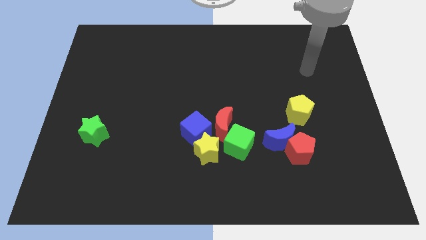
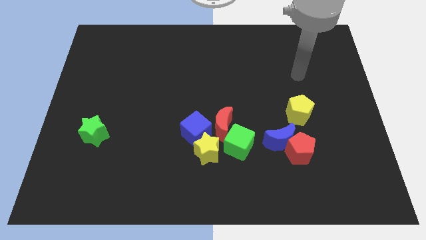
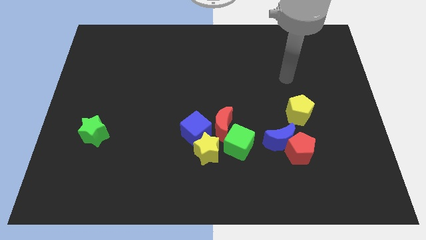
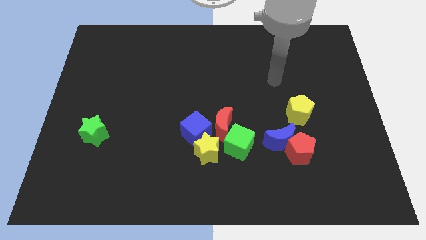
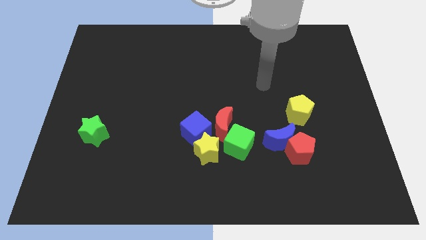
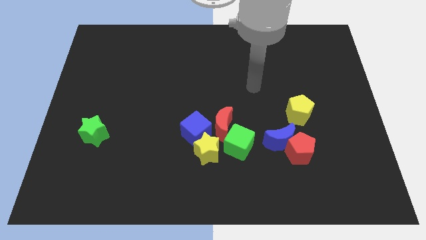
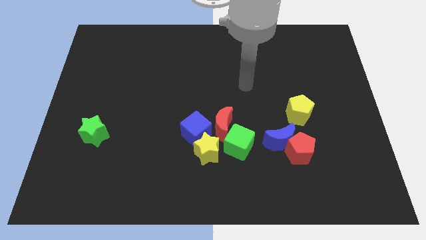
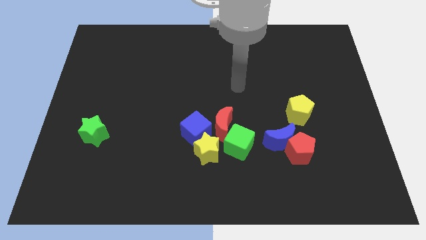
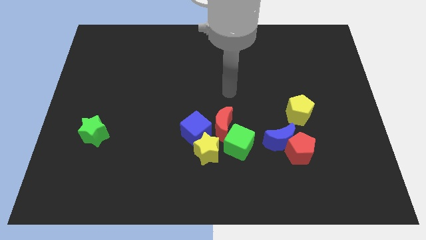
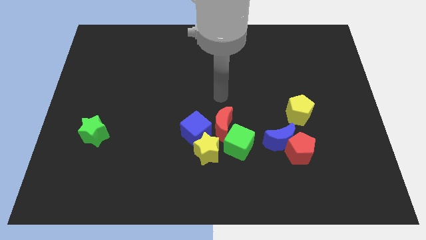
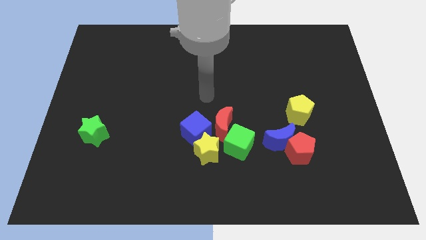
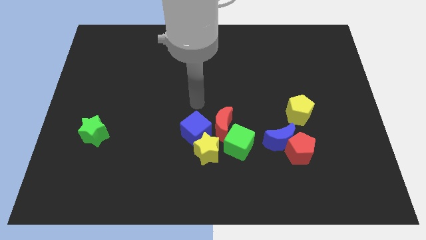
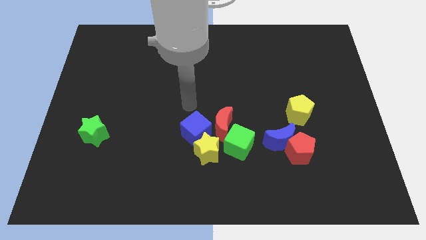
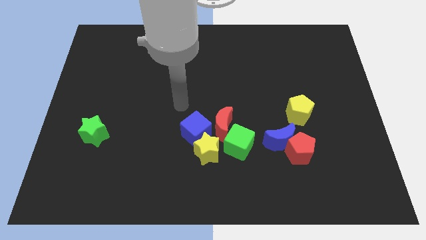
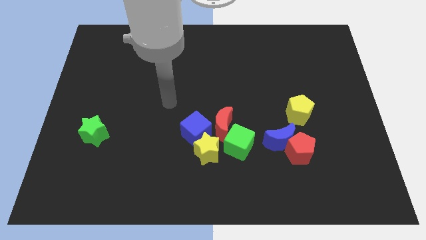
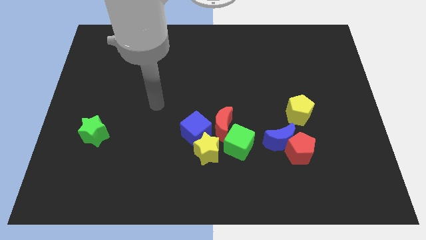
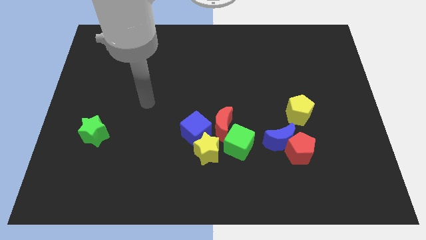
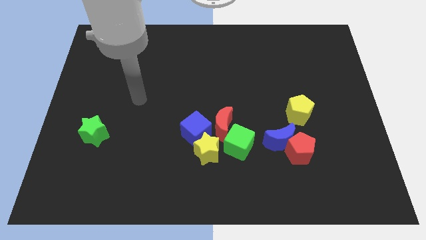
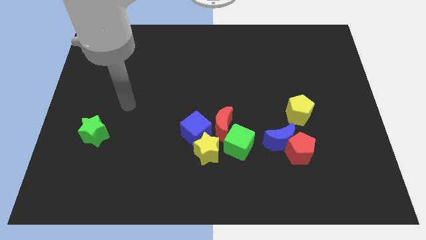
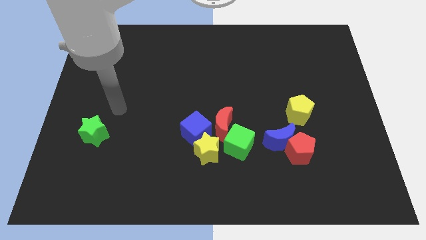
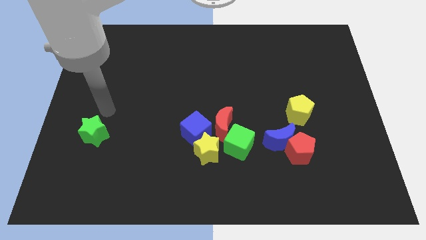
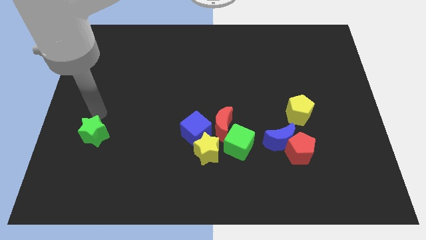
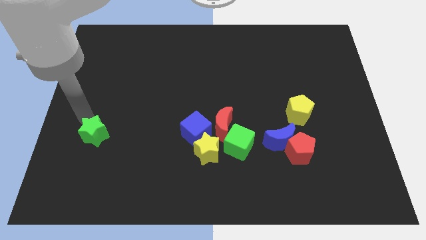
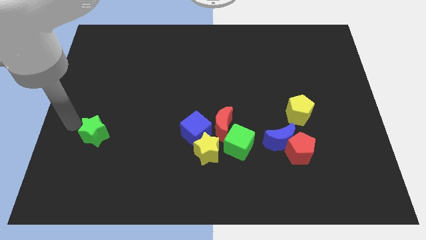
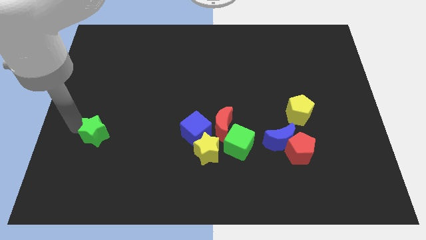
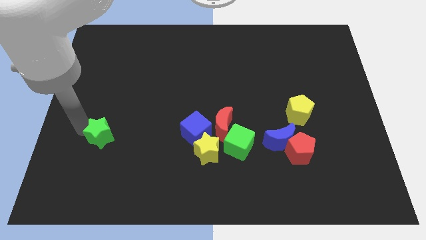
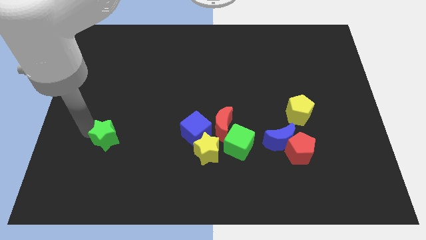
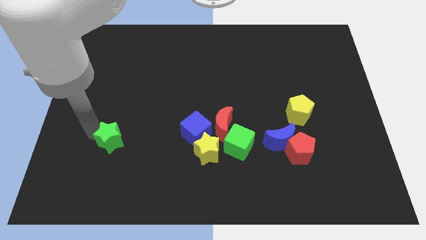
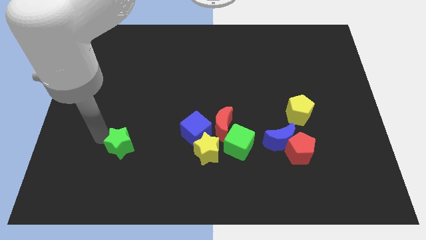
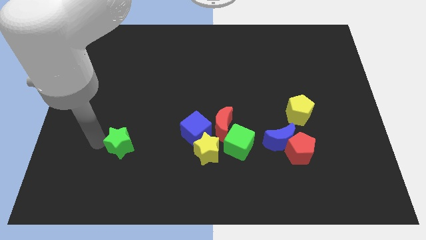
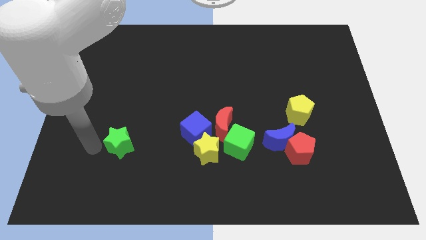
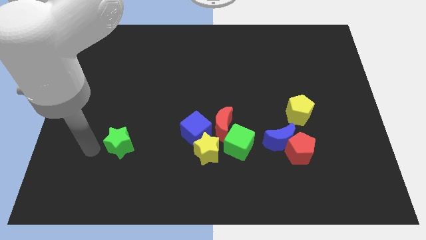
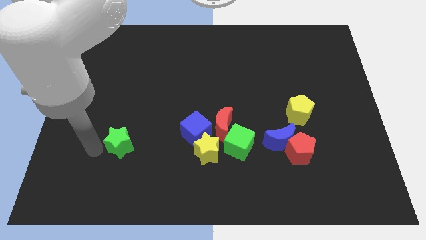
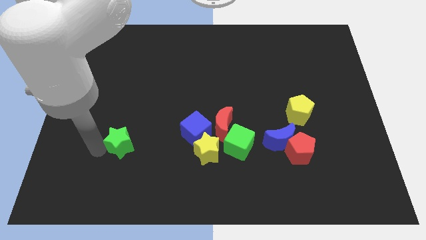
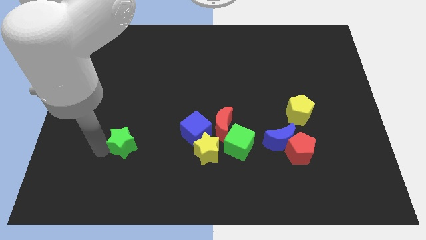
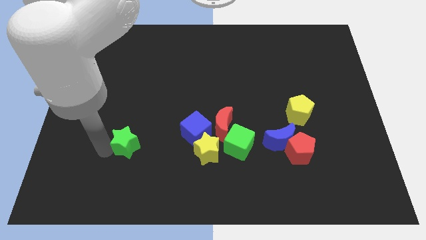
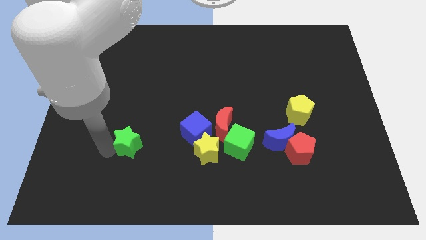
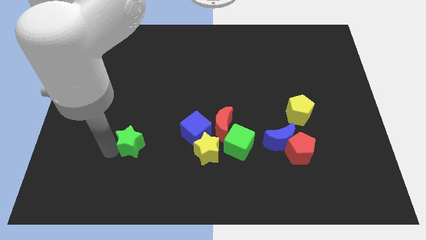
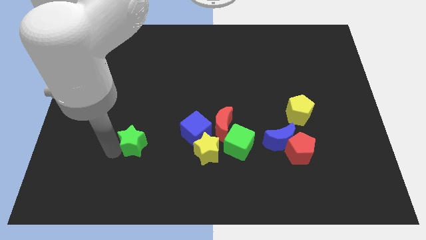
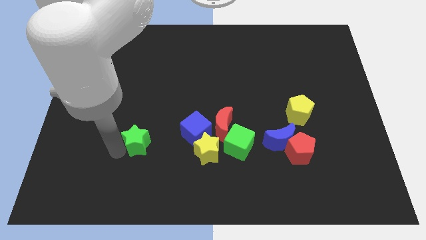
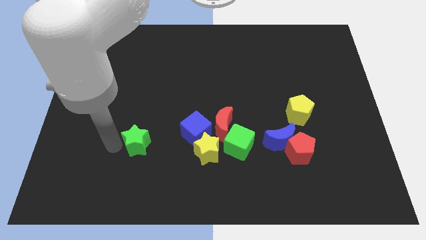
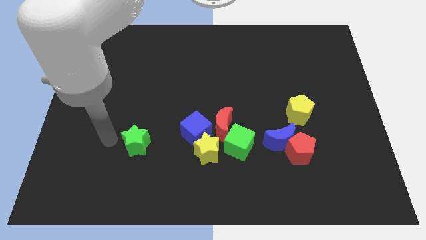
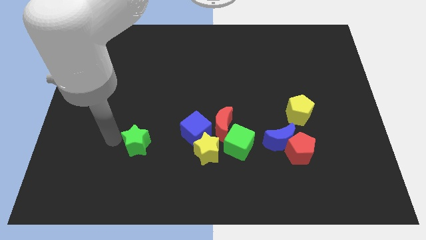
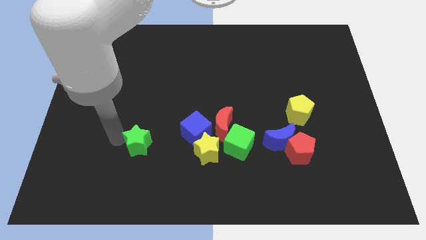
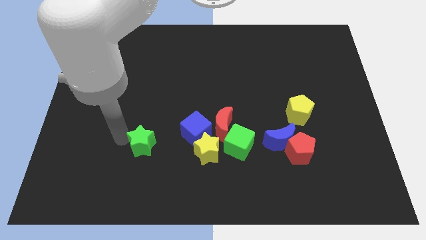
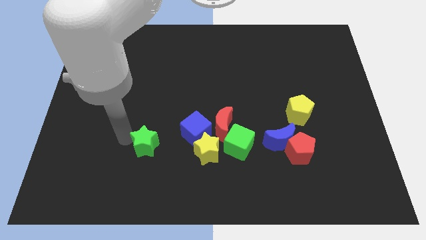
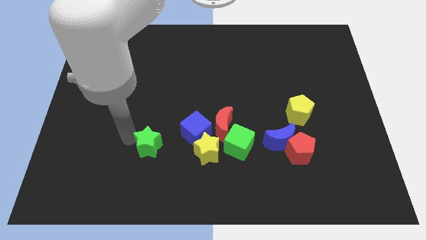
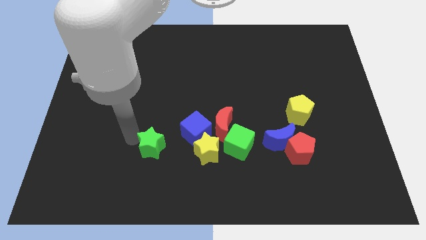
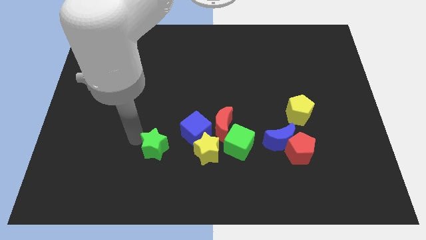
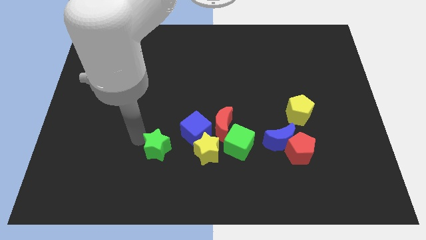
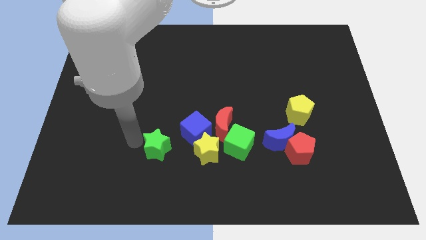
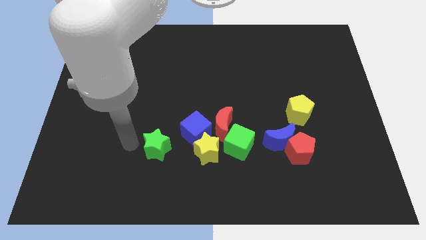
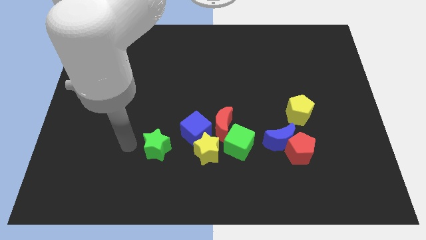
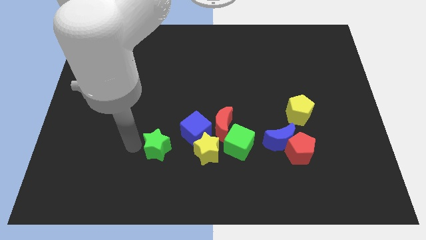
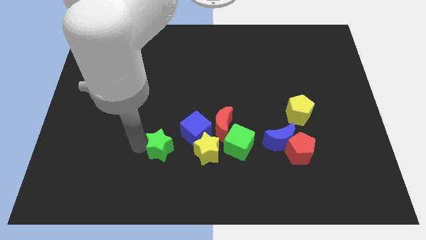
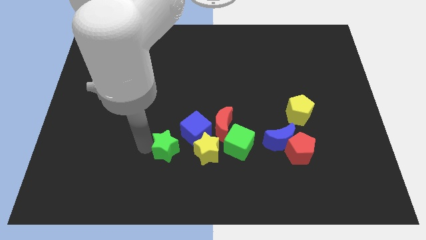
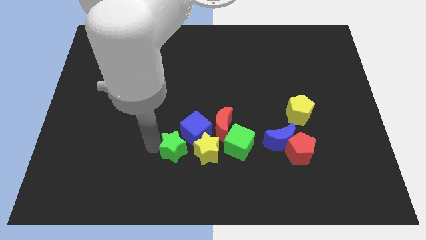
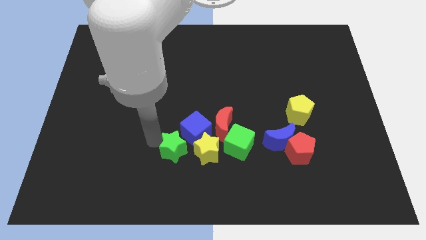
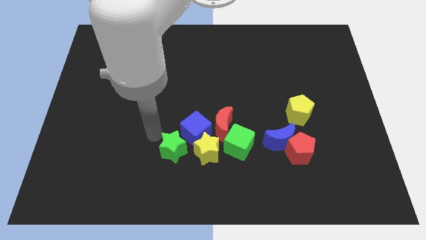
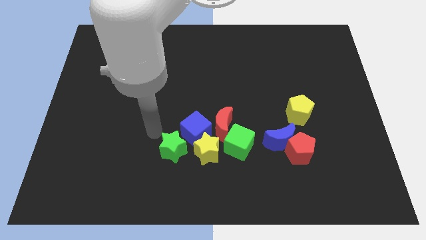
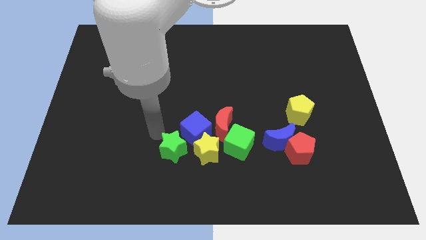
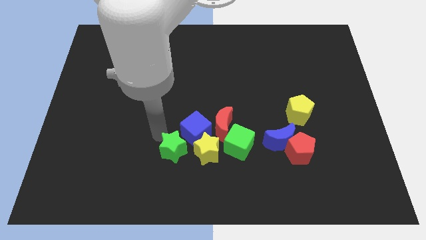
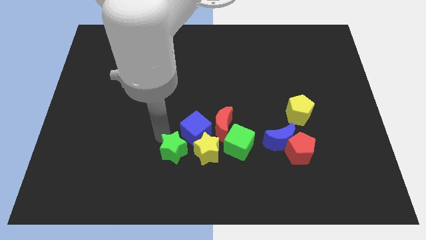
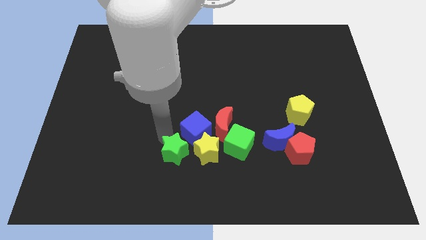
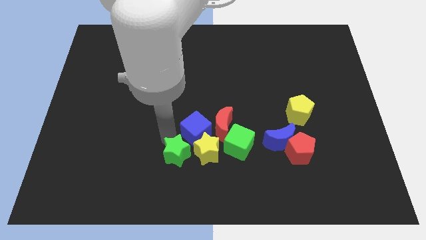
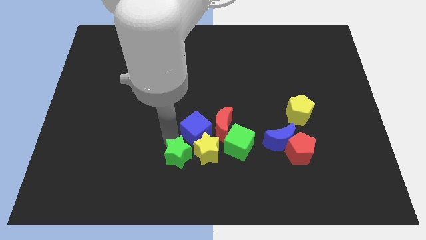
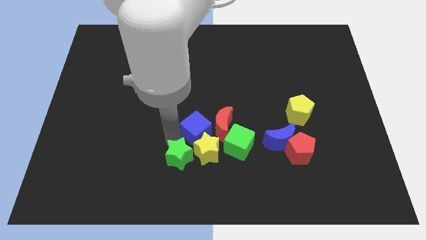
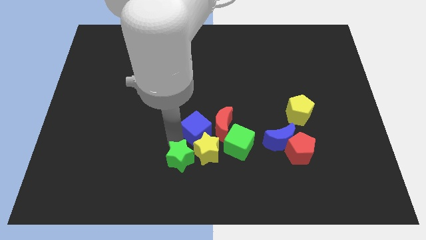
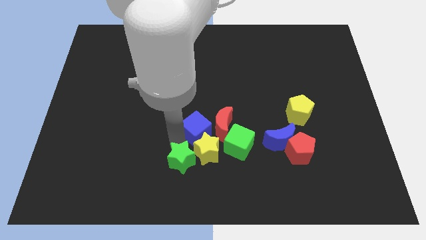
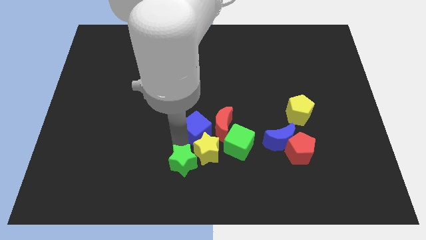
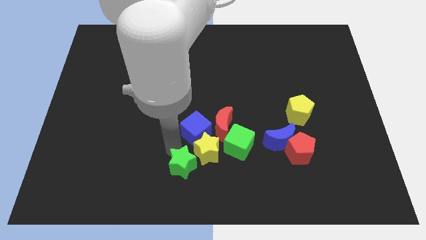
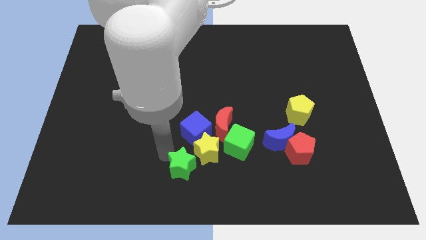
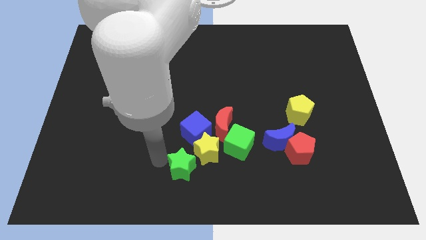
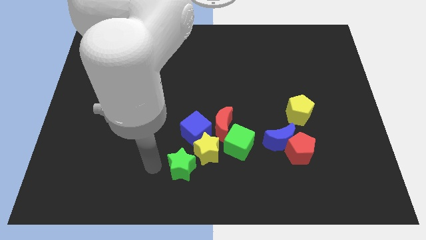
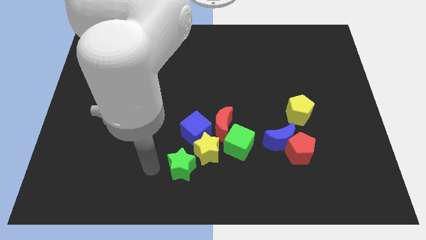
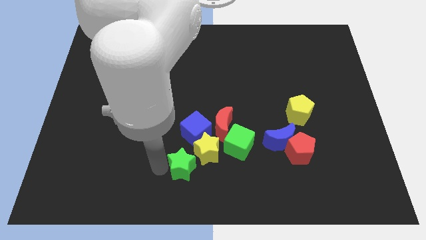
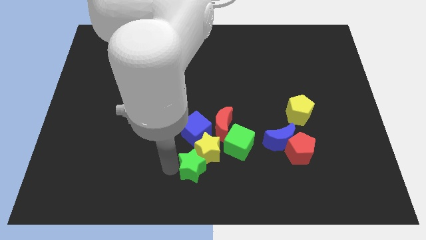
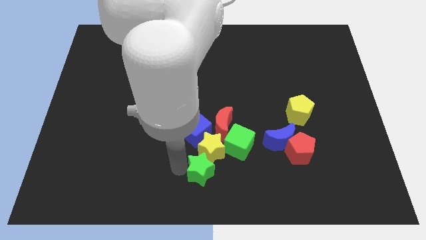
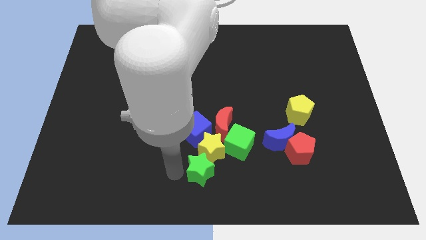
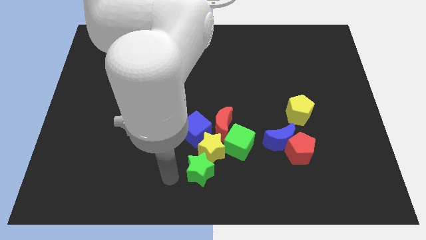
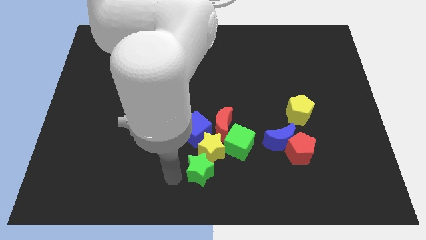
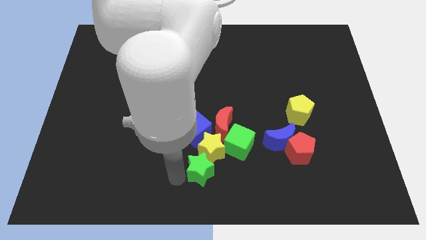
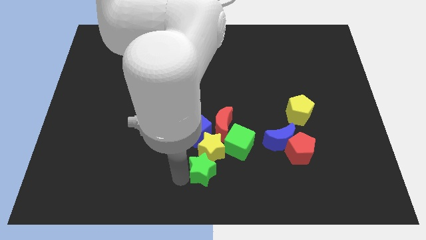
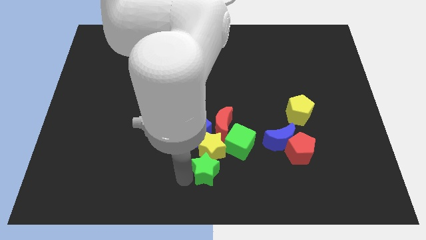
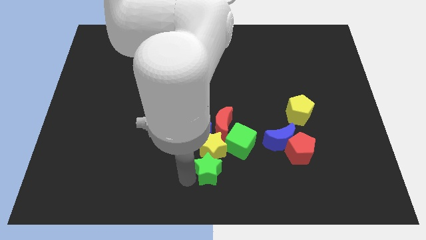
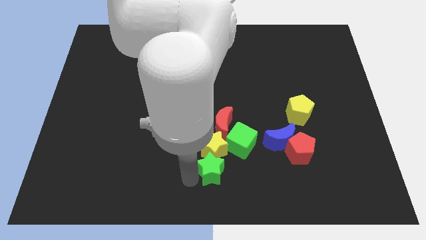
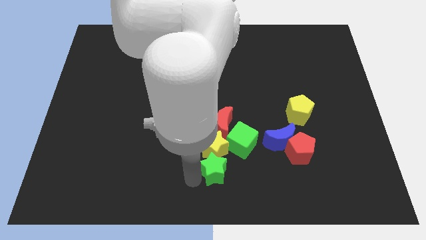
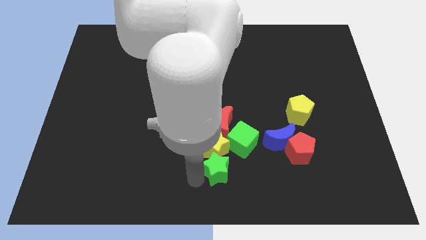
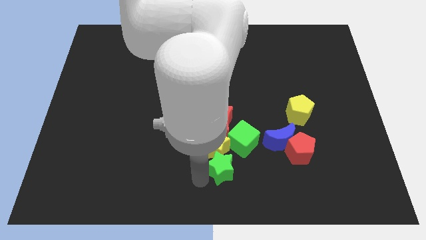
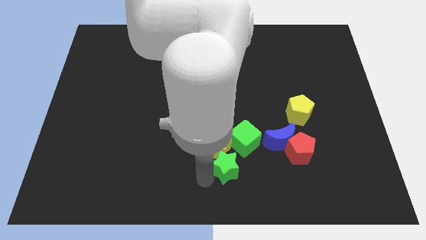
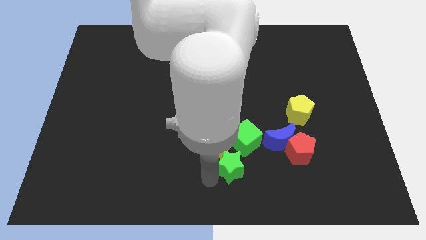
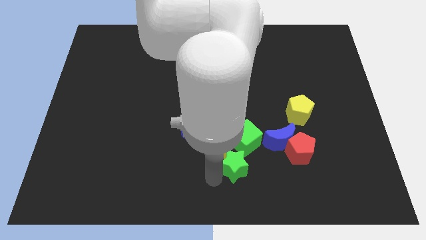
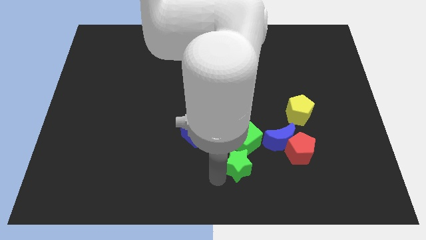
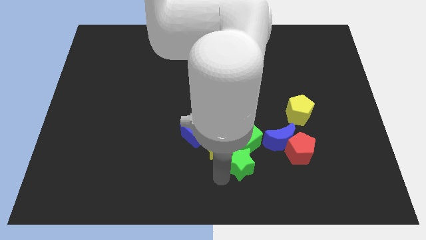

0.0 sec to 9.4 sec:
move the green star next to the green cube
